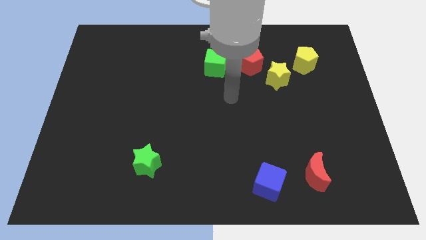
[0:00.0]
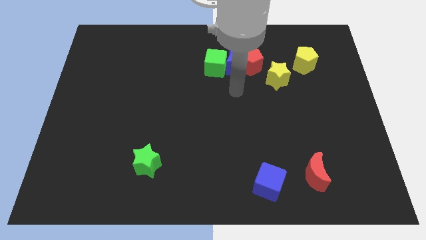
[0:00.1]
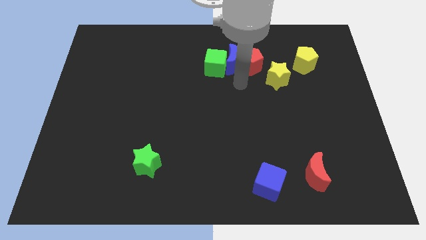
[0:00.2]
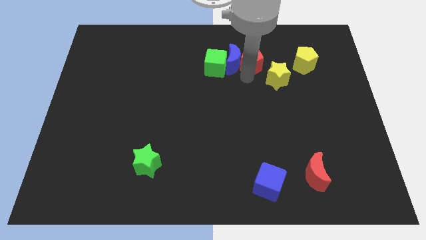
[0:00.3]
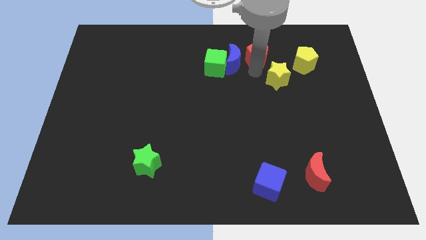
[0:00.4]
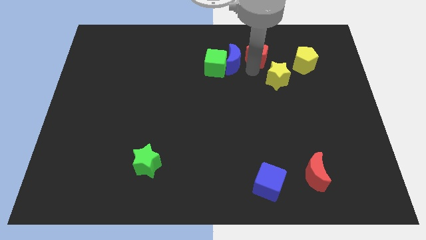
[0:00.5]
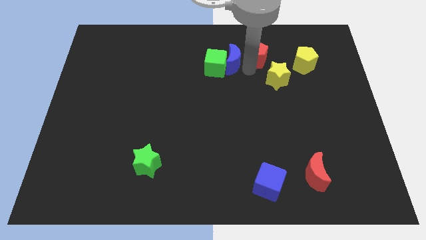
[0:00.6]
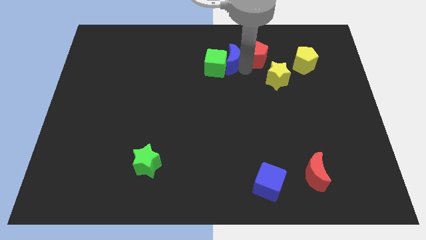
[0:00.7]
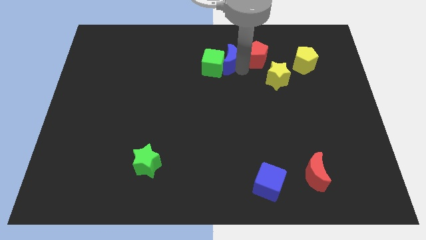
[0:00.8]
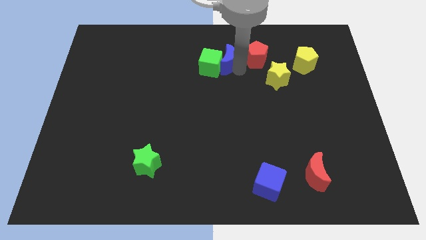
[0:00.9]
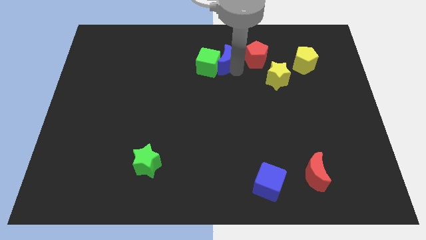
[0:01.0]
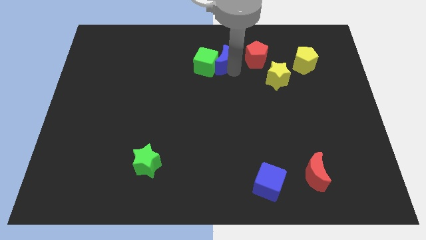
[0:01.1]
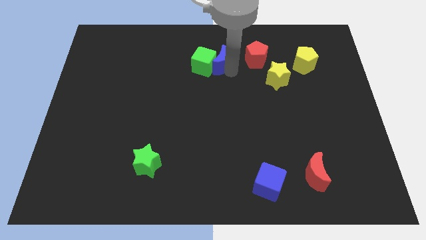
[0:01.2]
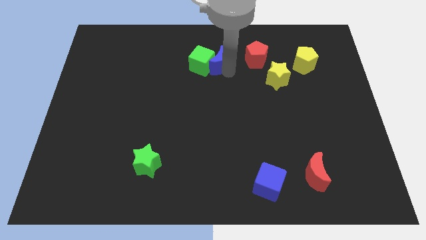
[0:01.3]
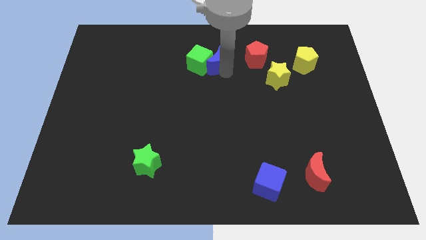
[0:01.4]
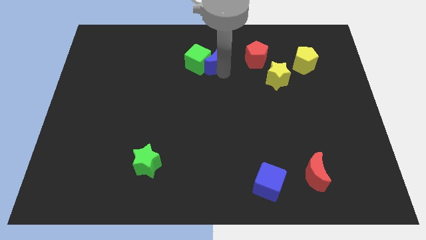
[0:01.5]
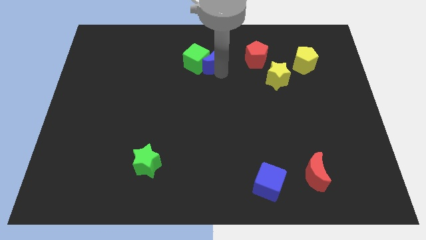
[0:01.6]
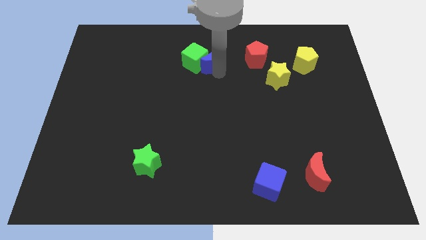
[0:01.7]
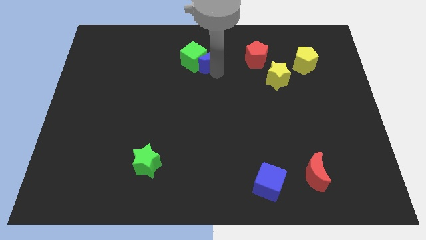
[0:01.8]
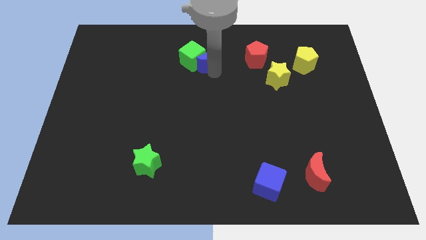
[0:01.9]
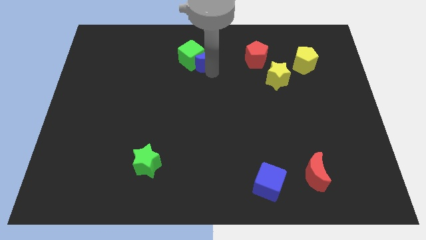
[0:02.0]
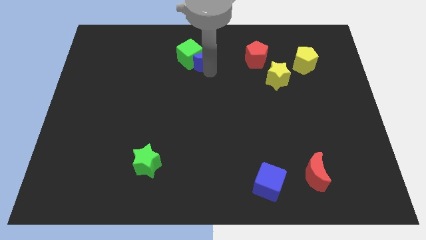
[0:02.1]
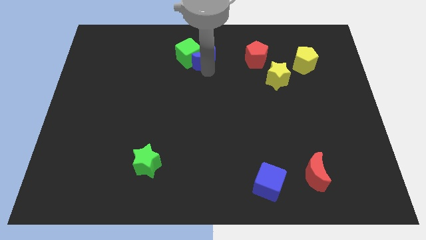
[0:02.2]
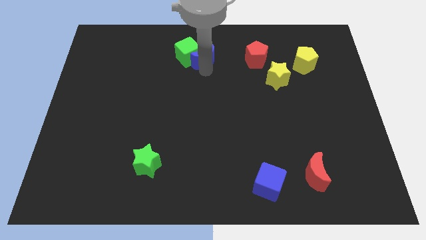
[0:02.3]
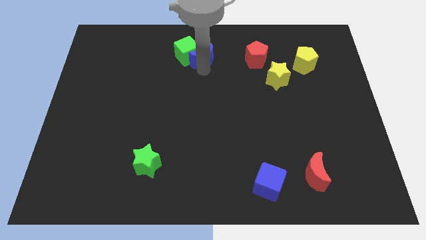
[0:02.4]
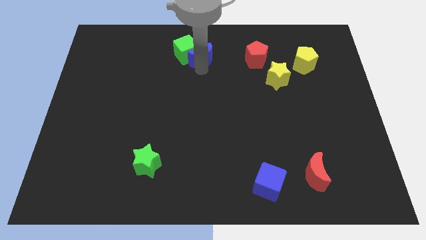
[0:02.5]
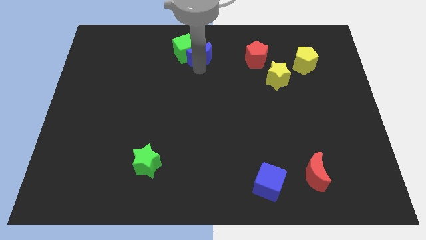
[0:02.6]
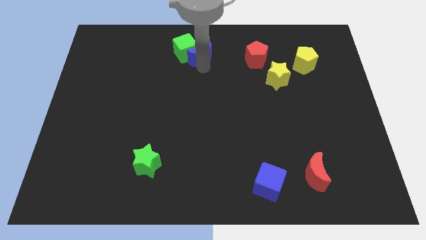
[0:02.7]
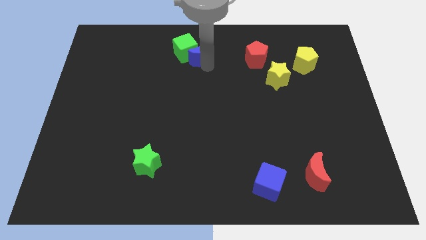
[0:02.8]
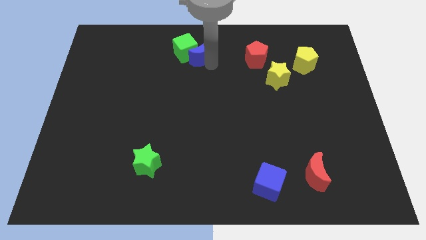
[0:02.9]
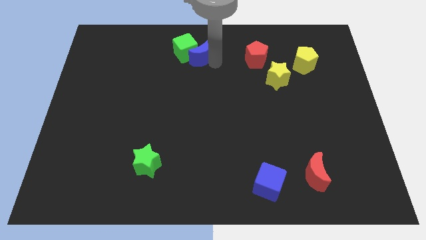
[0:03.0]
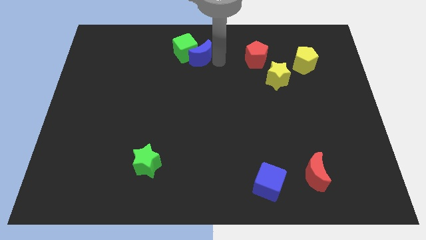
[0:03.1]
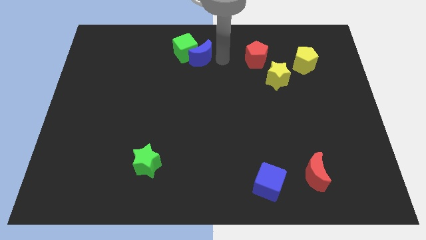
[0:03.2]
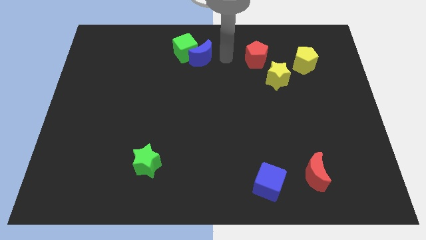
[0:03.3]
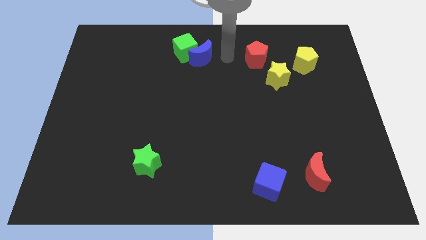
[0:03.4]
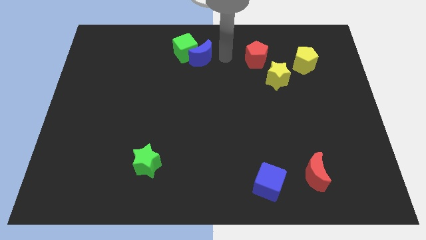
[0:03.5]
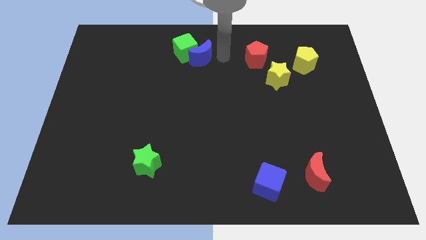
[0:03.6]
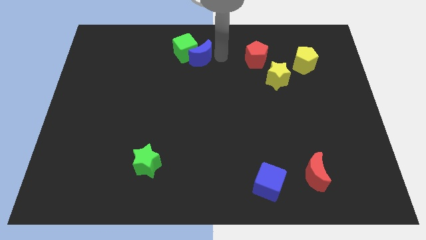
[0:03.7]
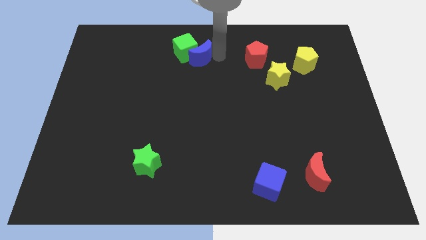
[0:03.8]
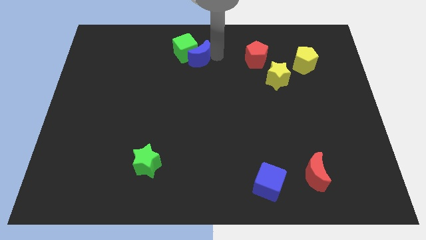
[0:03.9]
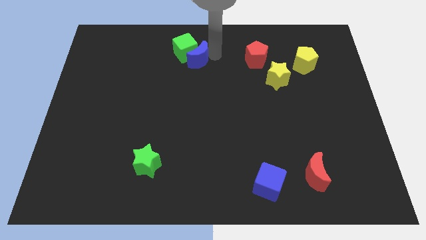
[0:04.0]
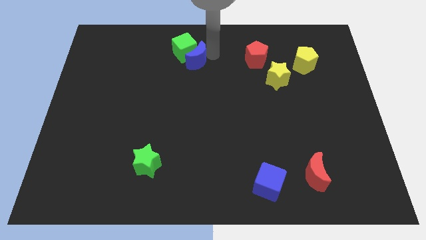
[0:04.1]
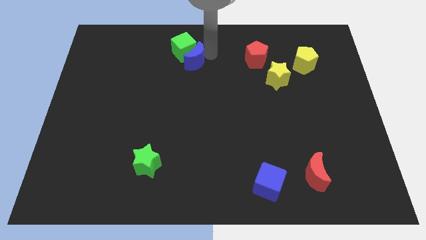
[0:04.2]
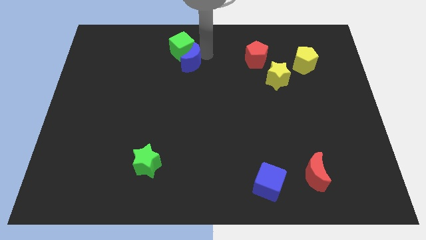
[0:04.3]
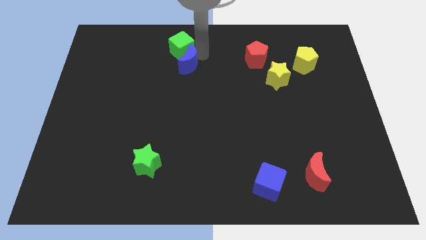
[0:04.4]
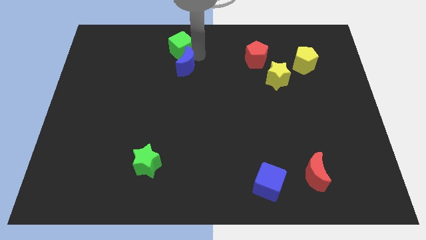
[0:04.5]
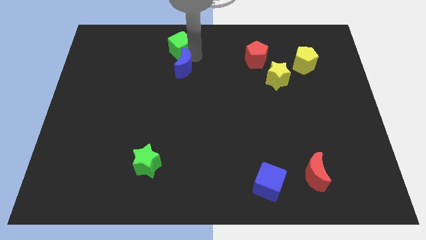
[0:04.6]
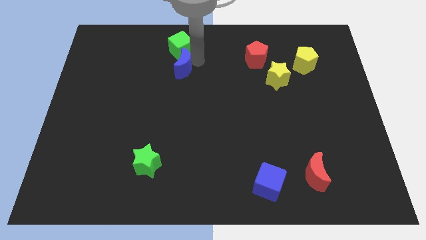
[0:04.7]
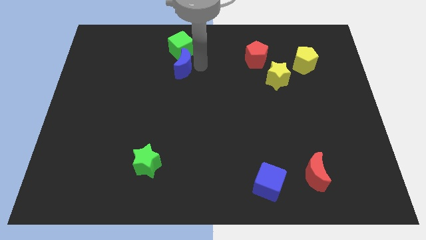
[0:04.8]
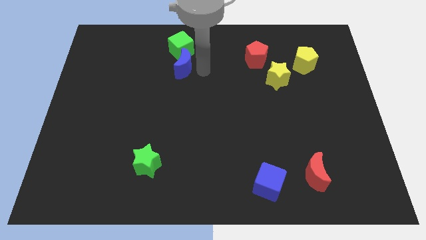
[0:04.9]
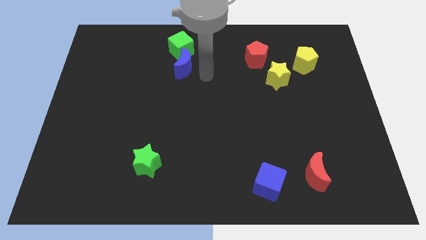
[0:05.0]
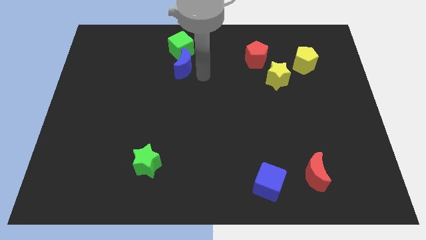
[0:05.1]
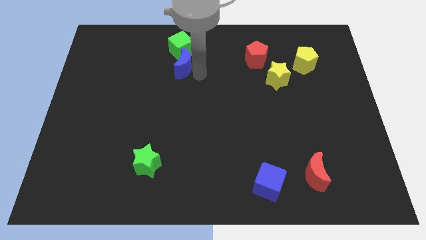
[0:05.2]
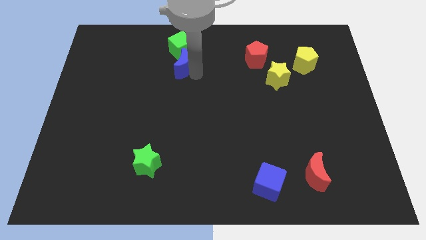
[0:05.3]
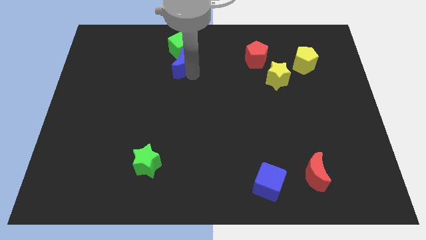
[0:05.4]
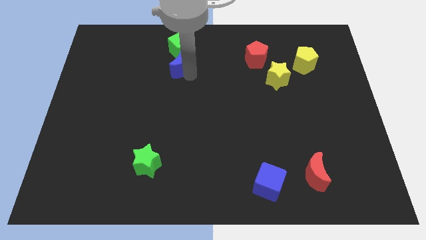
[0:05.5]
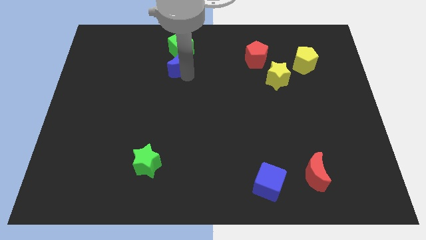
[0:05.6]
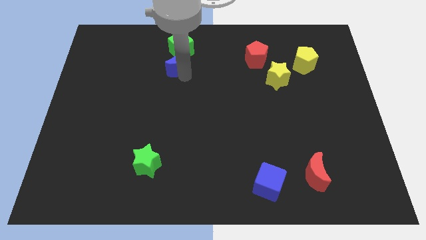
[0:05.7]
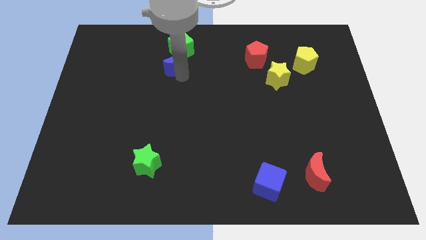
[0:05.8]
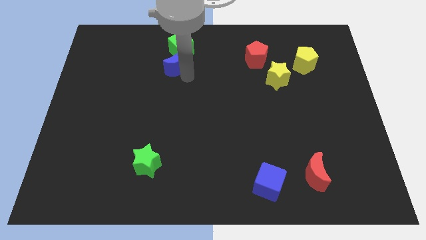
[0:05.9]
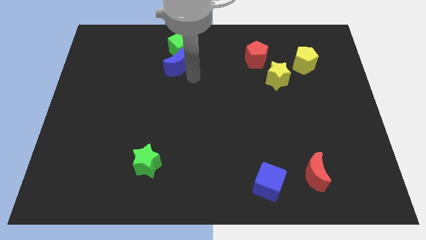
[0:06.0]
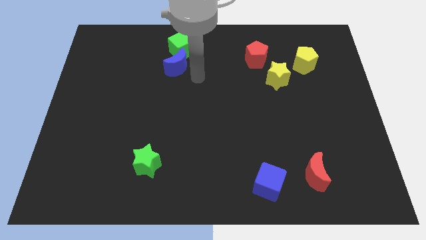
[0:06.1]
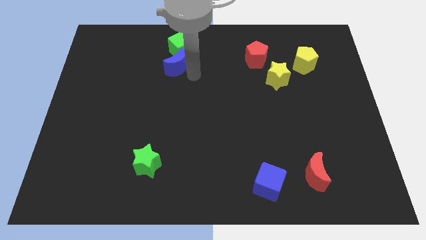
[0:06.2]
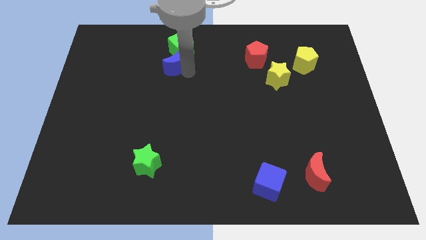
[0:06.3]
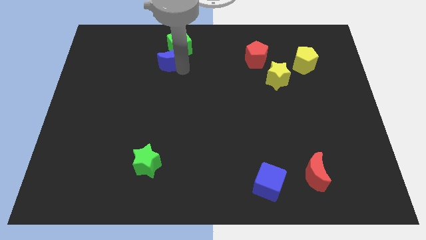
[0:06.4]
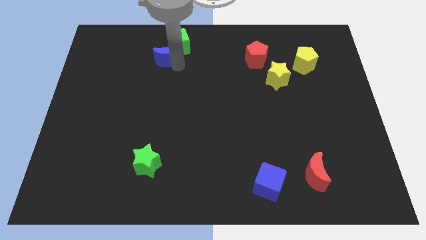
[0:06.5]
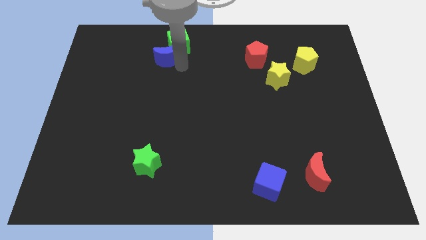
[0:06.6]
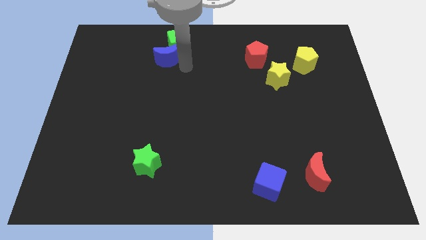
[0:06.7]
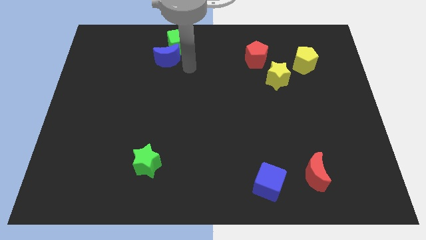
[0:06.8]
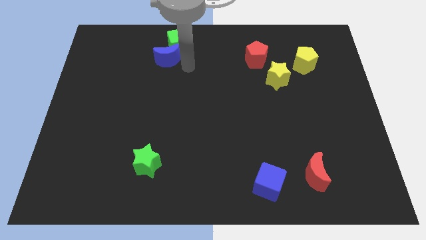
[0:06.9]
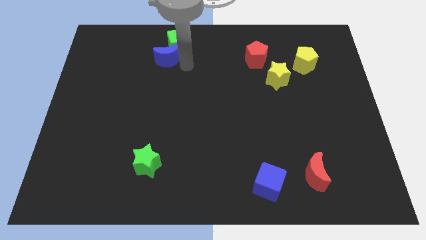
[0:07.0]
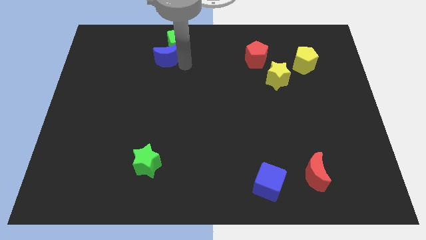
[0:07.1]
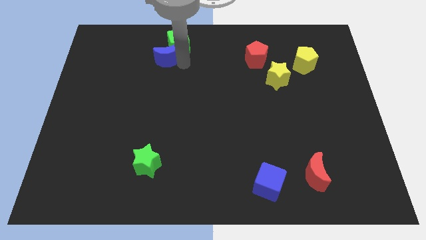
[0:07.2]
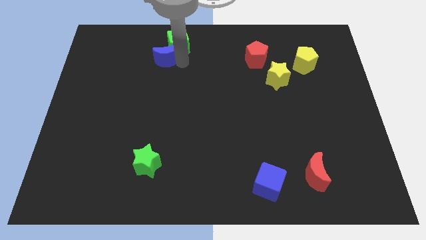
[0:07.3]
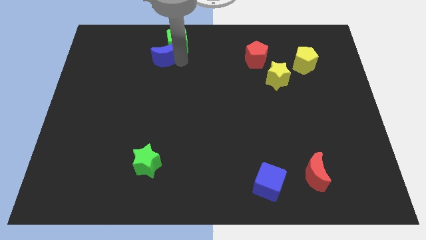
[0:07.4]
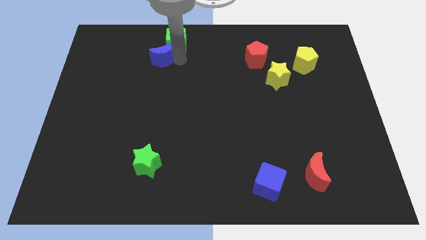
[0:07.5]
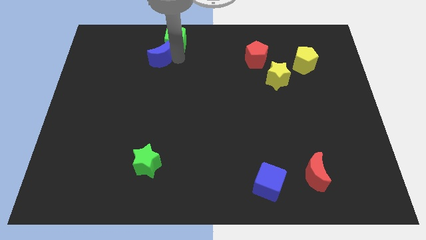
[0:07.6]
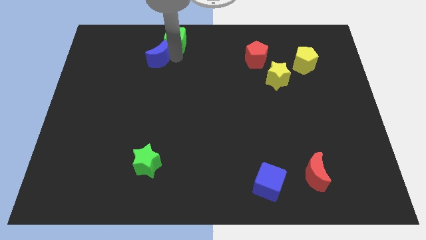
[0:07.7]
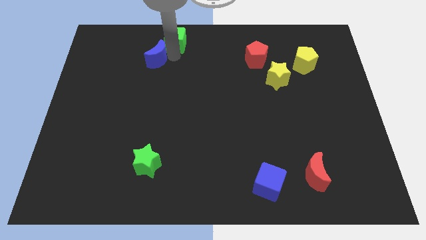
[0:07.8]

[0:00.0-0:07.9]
slide the blue moon left
